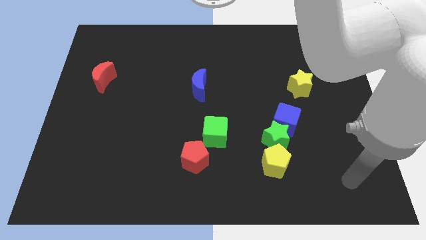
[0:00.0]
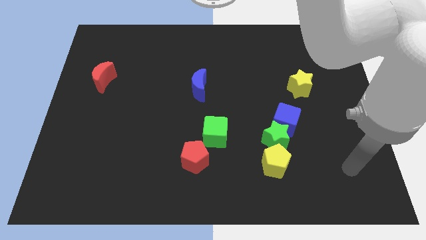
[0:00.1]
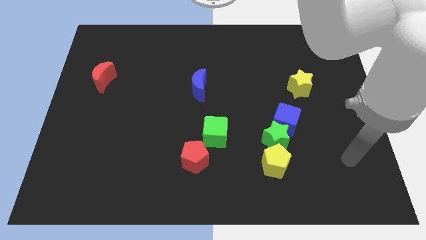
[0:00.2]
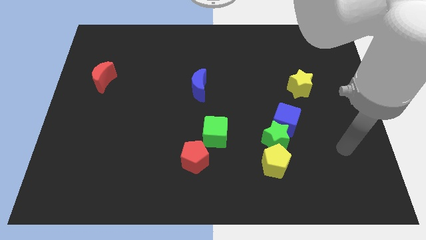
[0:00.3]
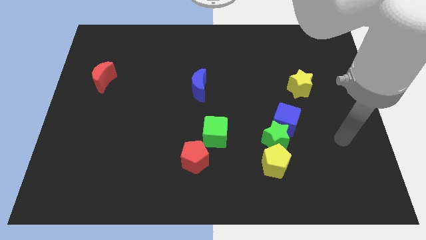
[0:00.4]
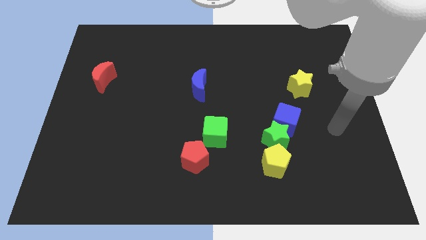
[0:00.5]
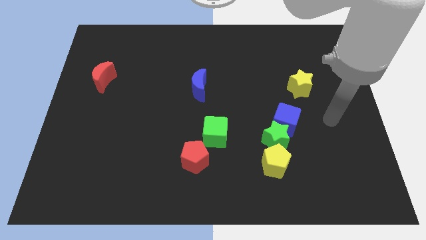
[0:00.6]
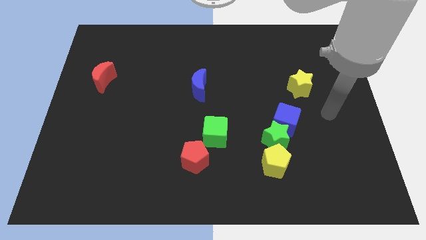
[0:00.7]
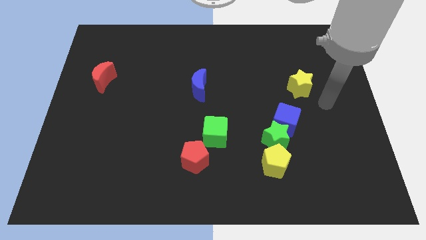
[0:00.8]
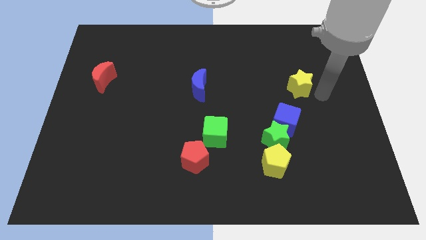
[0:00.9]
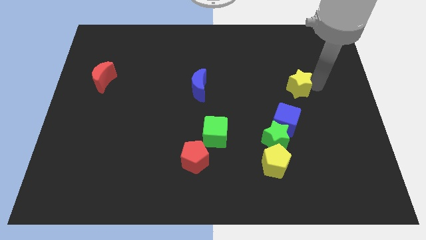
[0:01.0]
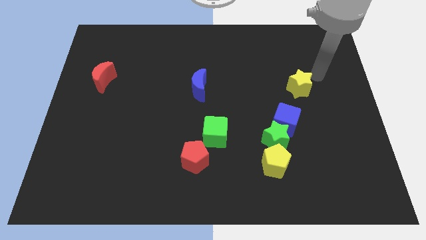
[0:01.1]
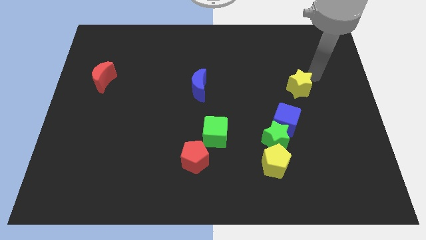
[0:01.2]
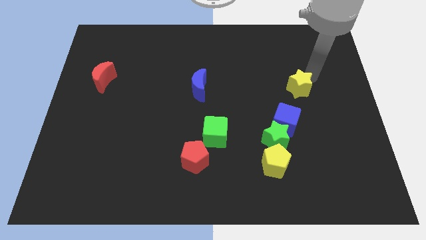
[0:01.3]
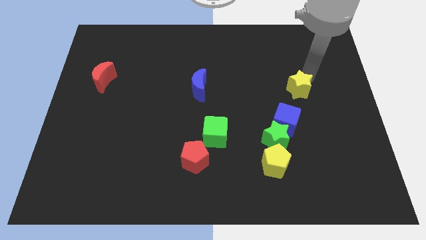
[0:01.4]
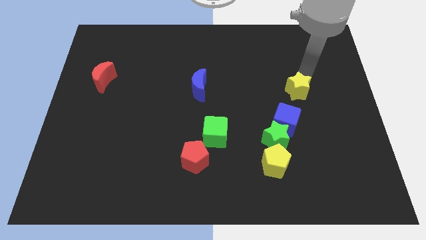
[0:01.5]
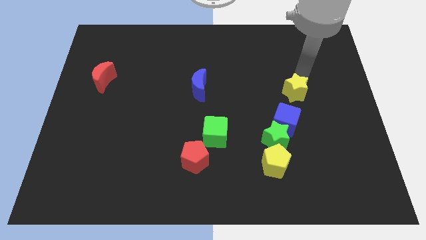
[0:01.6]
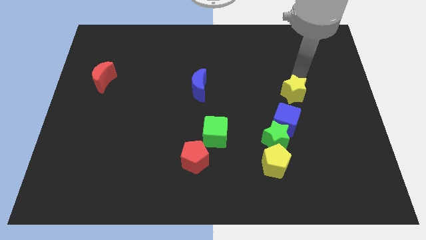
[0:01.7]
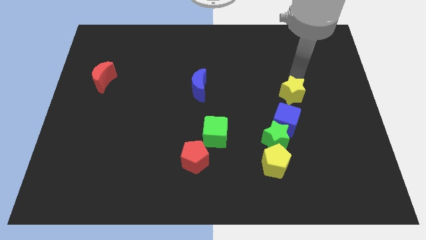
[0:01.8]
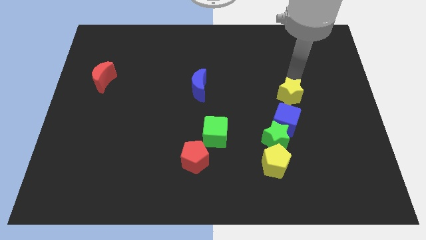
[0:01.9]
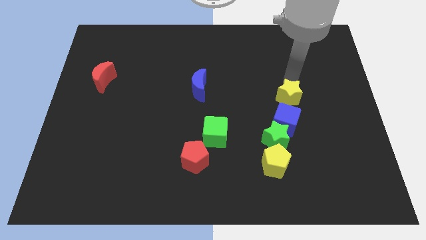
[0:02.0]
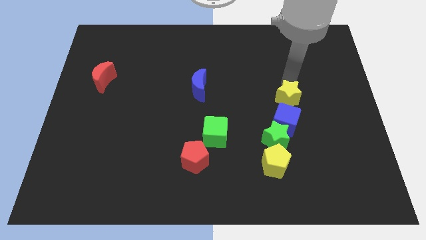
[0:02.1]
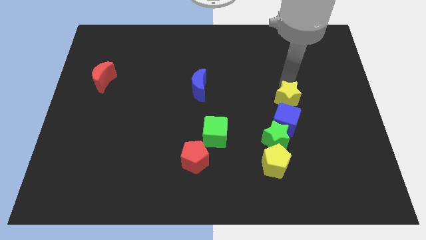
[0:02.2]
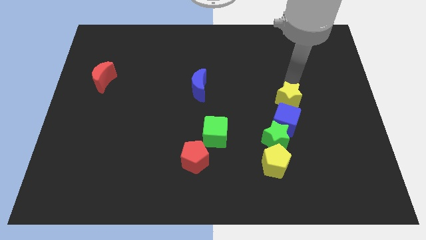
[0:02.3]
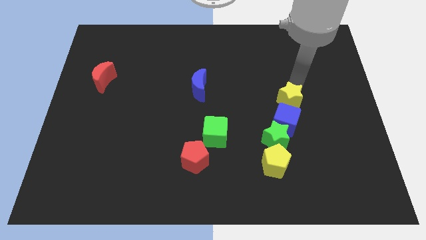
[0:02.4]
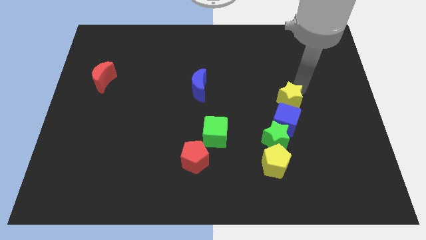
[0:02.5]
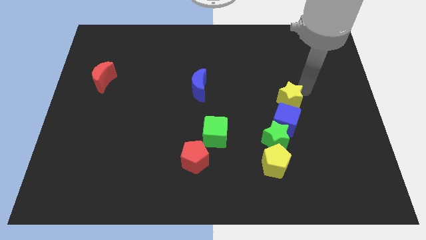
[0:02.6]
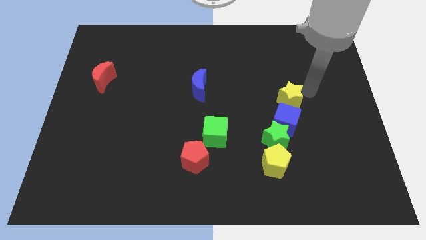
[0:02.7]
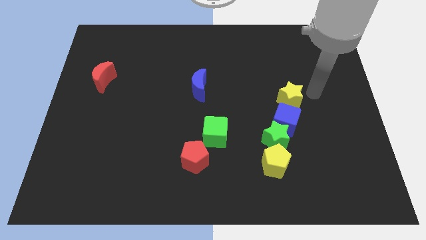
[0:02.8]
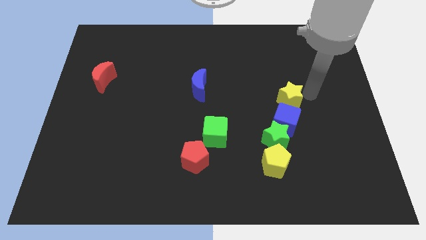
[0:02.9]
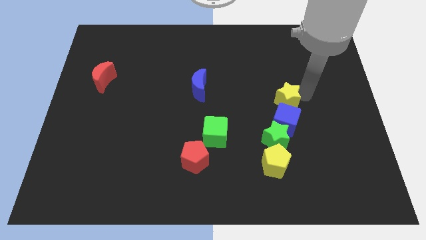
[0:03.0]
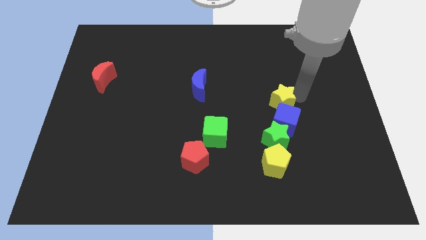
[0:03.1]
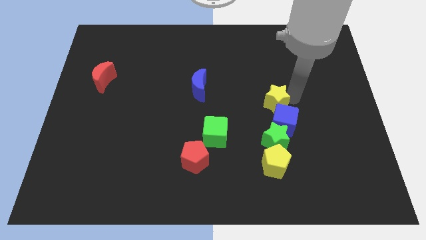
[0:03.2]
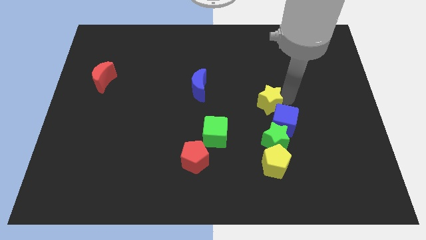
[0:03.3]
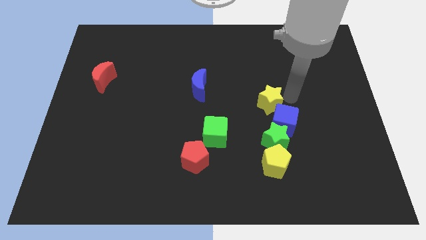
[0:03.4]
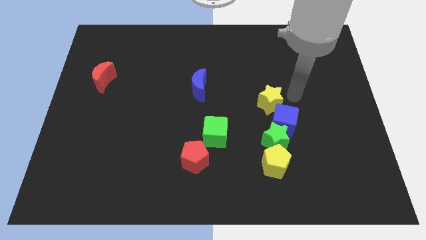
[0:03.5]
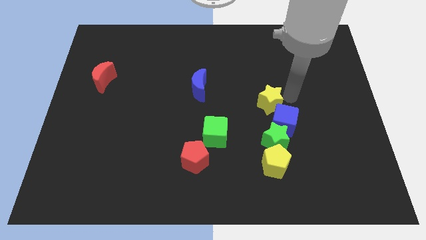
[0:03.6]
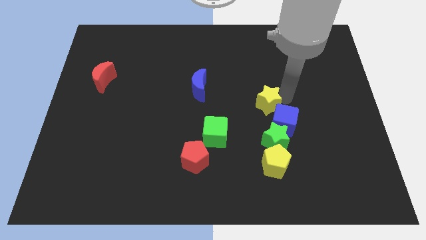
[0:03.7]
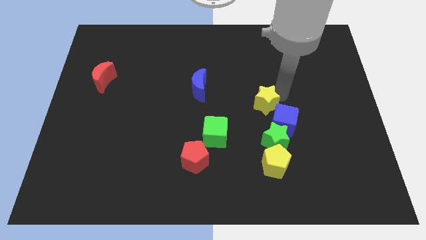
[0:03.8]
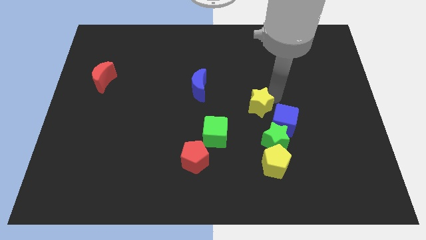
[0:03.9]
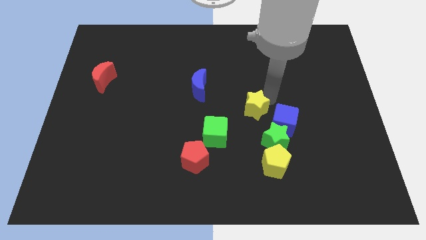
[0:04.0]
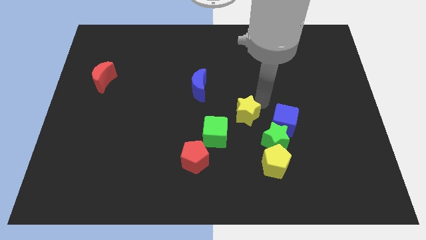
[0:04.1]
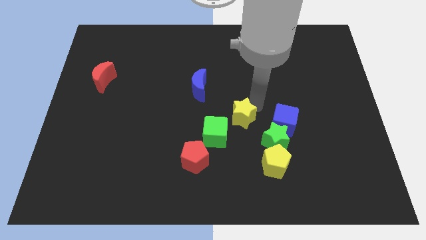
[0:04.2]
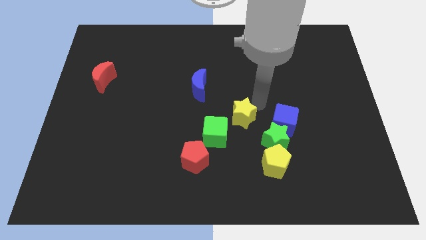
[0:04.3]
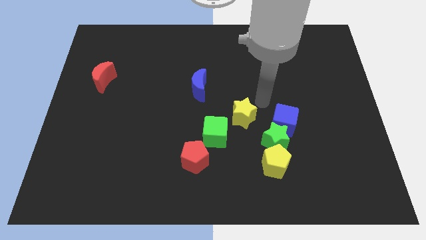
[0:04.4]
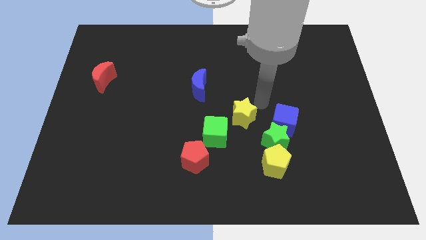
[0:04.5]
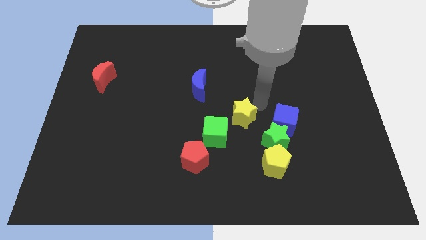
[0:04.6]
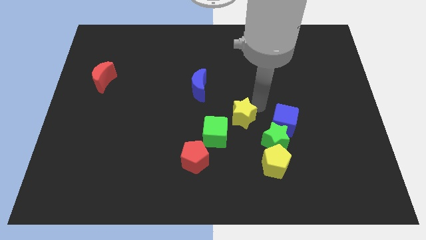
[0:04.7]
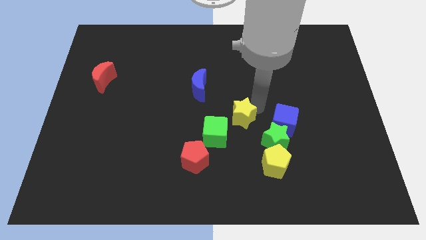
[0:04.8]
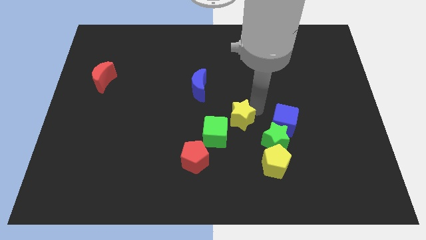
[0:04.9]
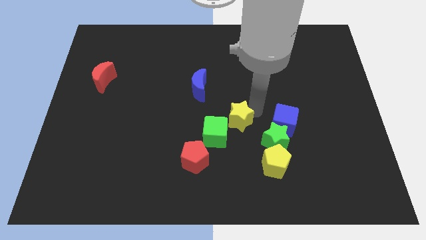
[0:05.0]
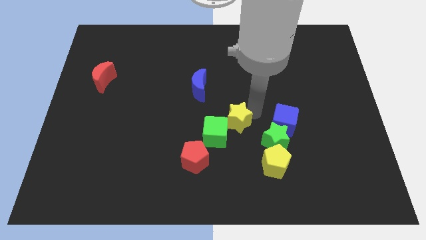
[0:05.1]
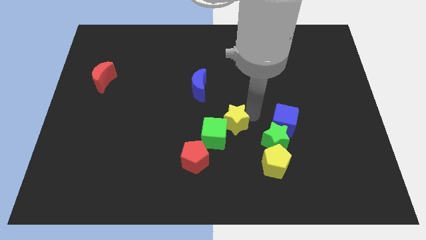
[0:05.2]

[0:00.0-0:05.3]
put the yellow star to the green cube
